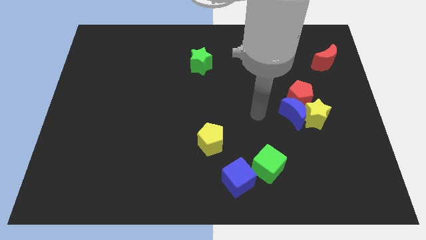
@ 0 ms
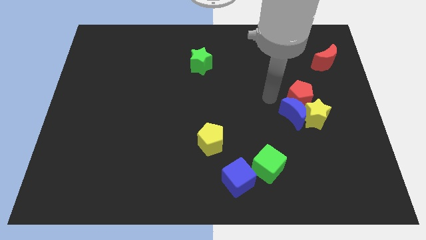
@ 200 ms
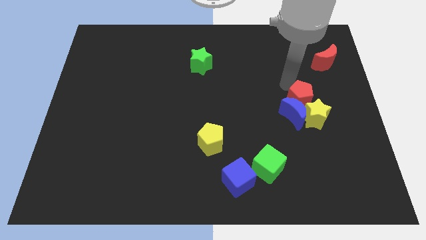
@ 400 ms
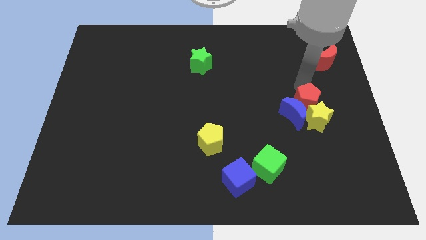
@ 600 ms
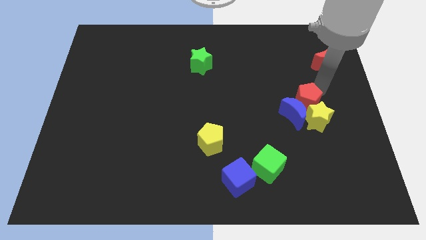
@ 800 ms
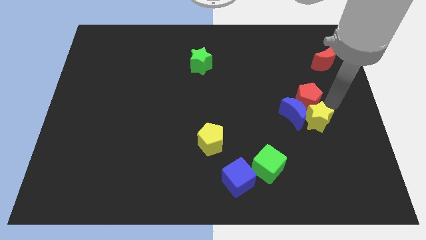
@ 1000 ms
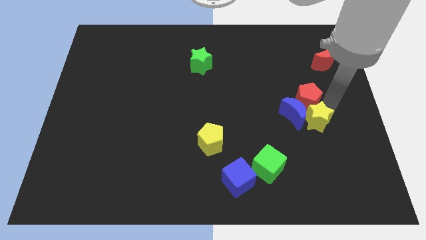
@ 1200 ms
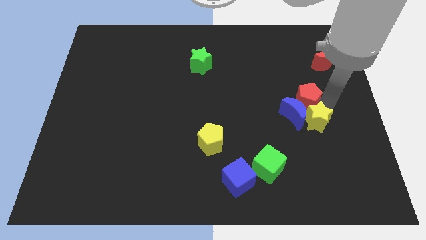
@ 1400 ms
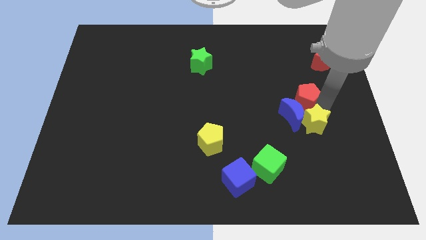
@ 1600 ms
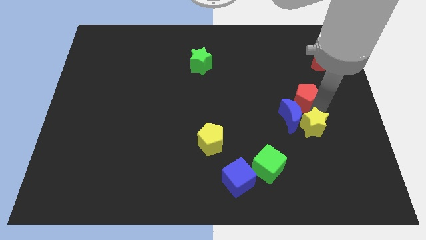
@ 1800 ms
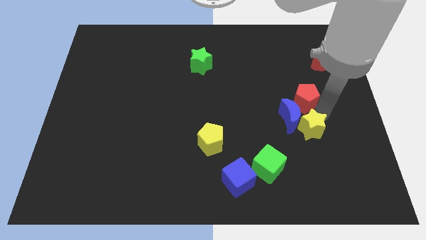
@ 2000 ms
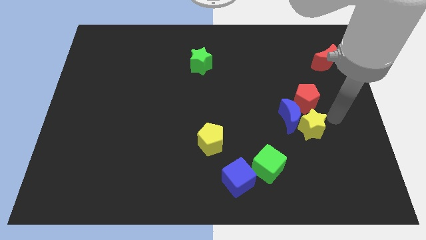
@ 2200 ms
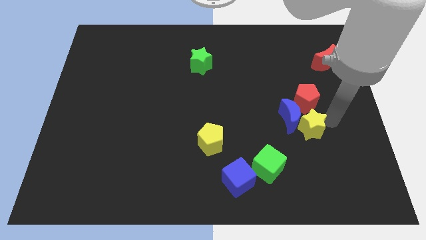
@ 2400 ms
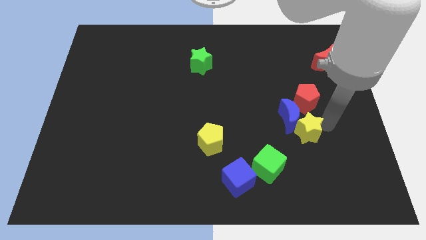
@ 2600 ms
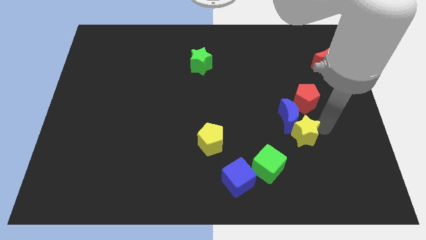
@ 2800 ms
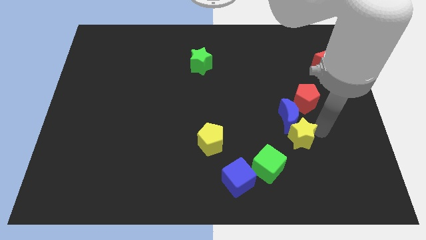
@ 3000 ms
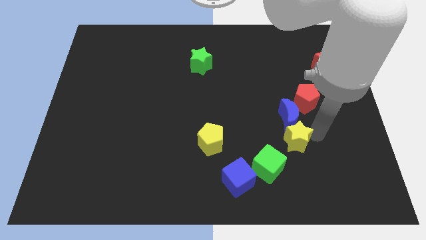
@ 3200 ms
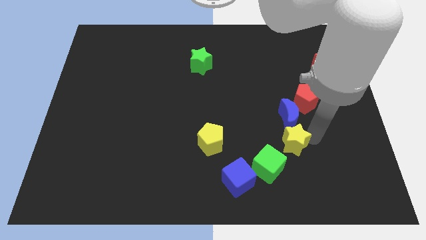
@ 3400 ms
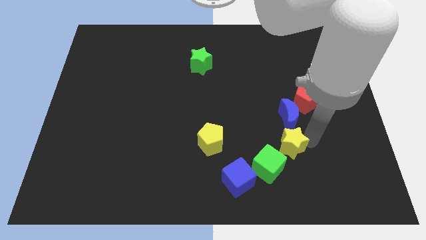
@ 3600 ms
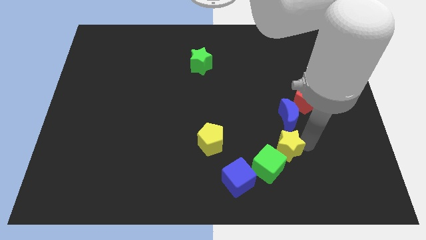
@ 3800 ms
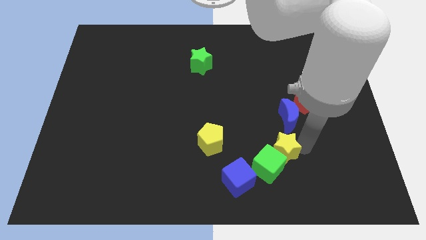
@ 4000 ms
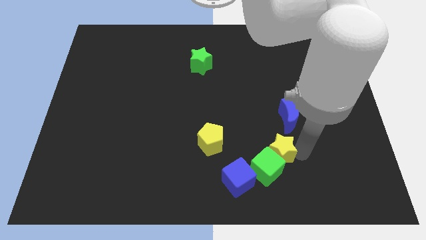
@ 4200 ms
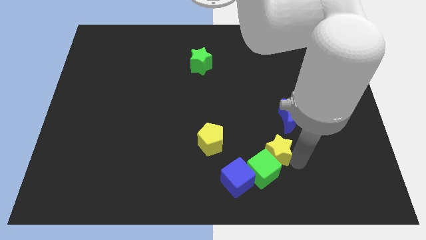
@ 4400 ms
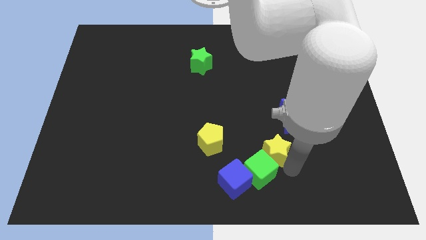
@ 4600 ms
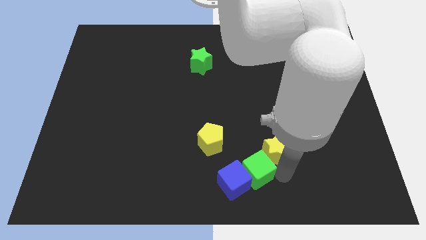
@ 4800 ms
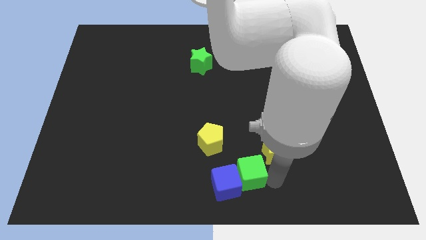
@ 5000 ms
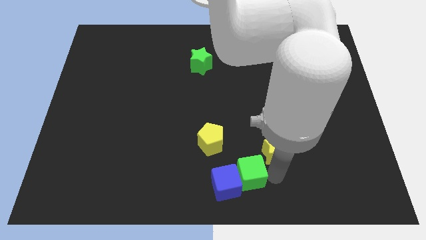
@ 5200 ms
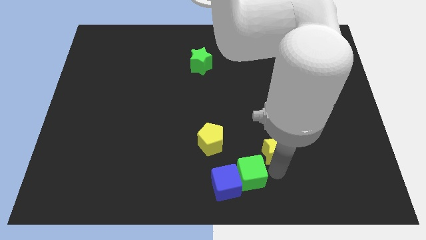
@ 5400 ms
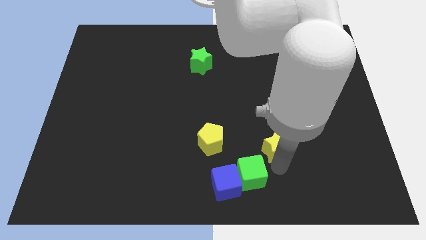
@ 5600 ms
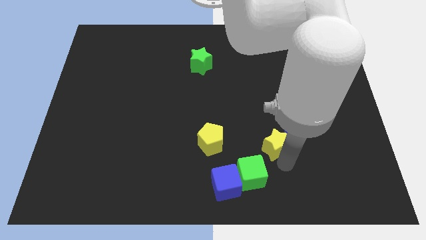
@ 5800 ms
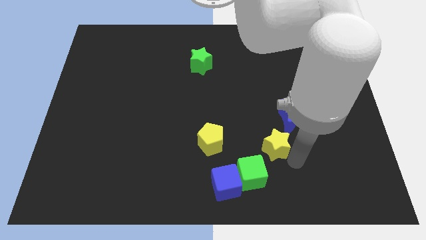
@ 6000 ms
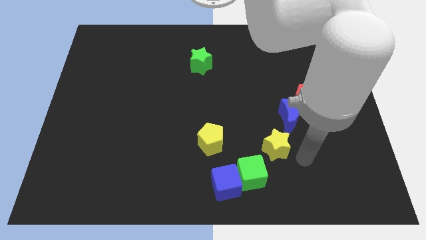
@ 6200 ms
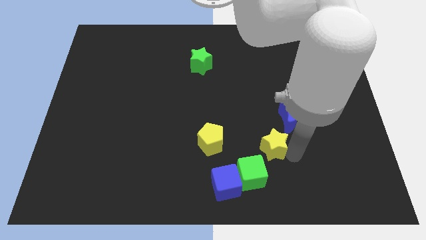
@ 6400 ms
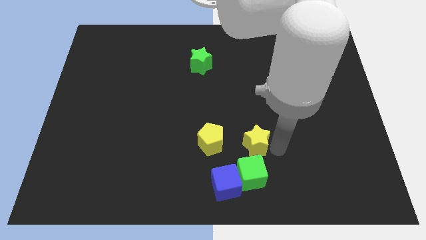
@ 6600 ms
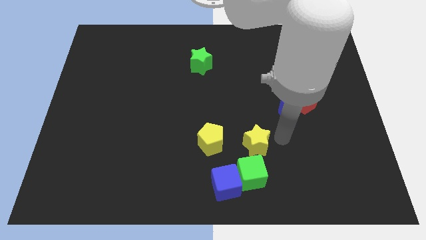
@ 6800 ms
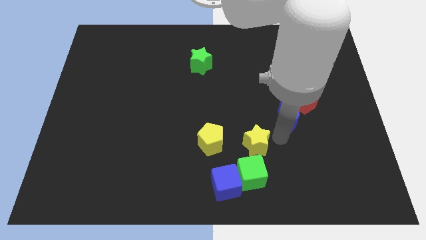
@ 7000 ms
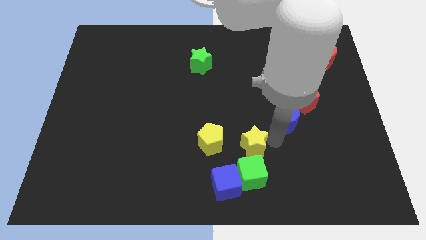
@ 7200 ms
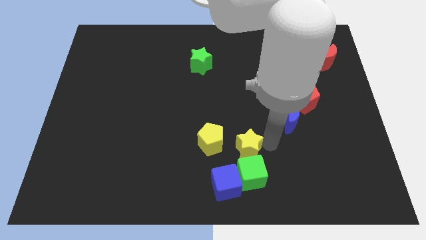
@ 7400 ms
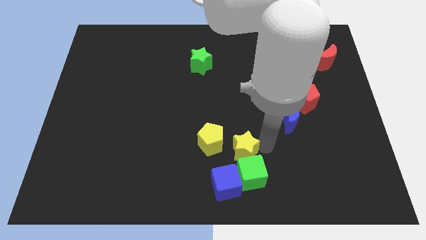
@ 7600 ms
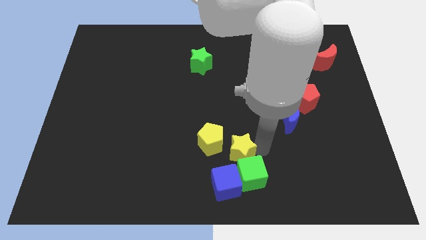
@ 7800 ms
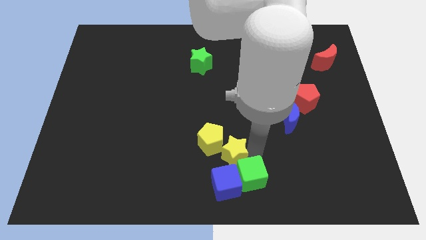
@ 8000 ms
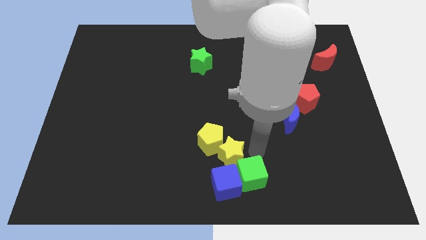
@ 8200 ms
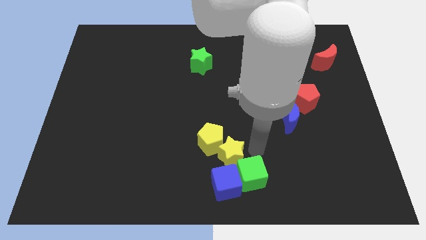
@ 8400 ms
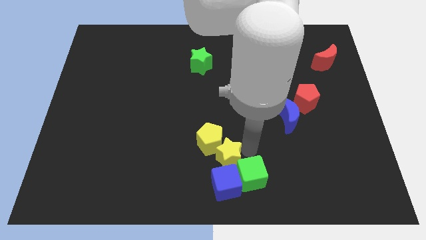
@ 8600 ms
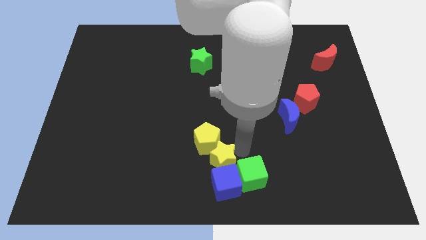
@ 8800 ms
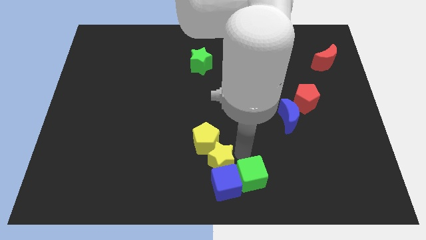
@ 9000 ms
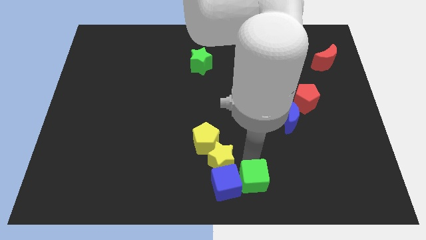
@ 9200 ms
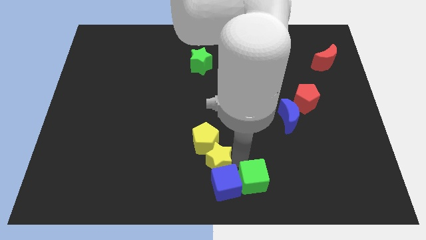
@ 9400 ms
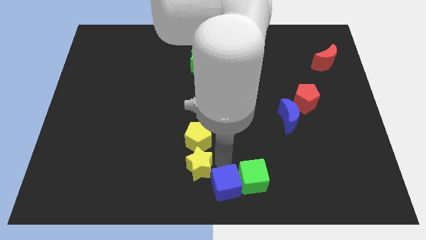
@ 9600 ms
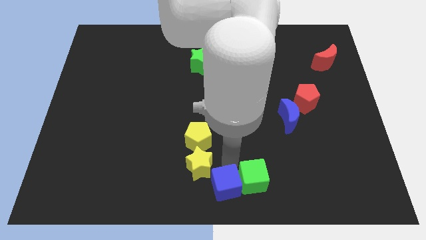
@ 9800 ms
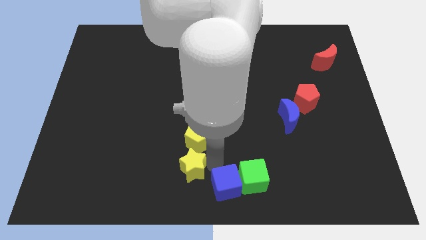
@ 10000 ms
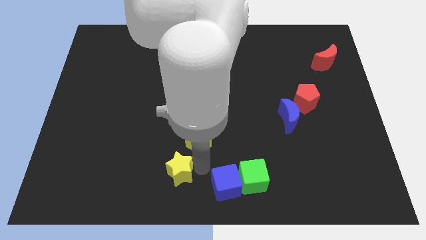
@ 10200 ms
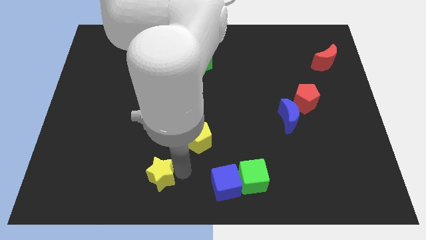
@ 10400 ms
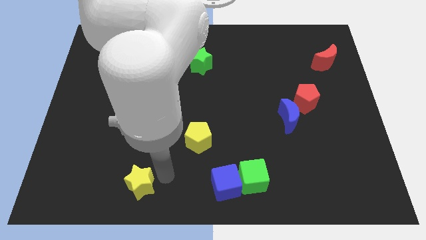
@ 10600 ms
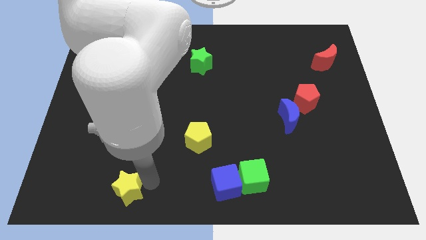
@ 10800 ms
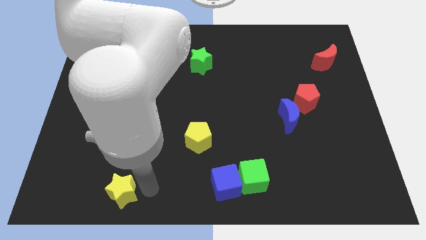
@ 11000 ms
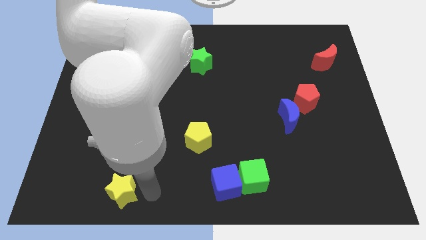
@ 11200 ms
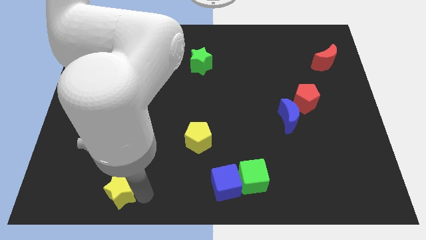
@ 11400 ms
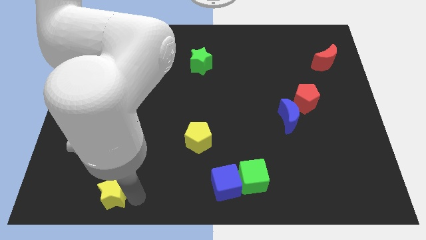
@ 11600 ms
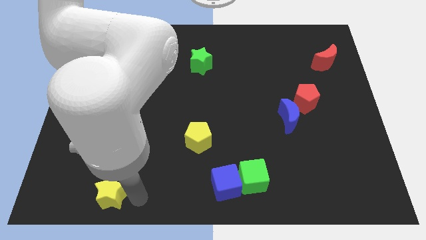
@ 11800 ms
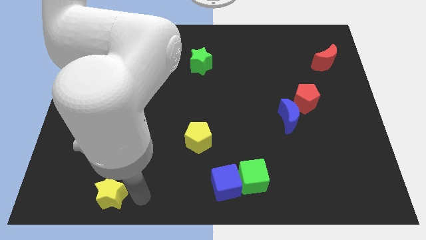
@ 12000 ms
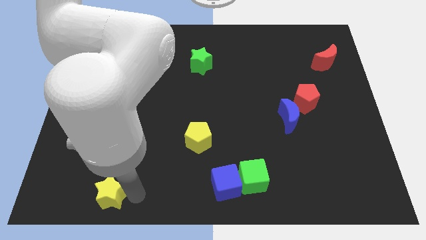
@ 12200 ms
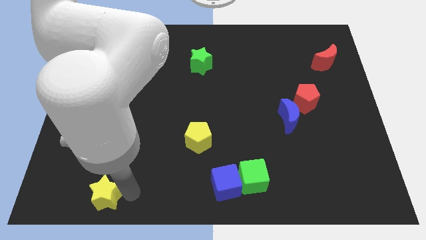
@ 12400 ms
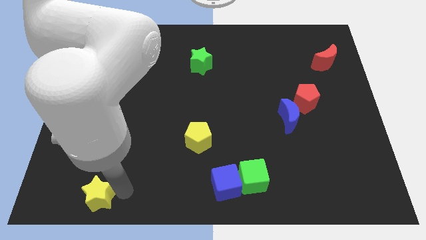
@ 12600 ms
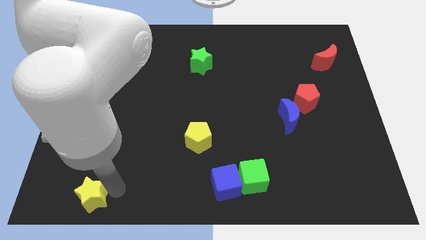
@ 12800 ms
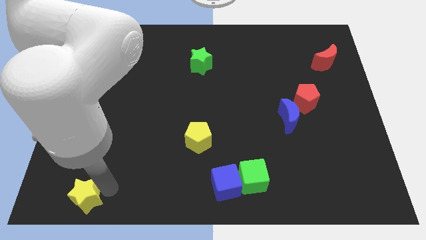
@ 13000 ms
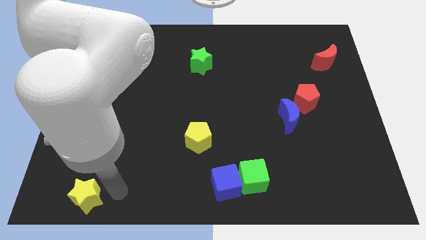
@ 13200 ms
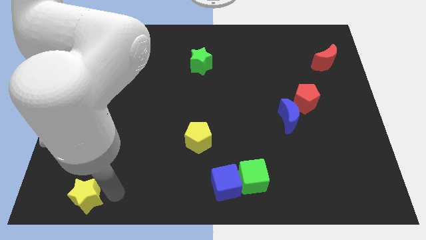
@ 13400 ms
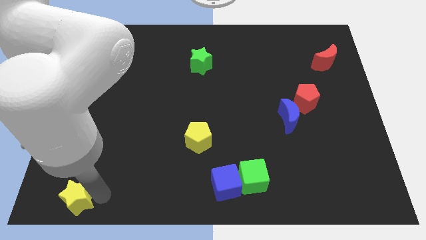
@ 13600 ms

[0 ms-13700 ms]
put the yellow star to the lower left corner
